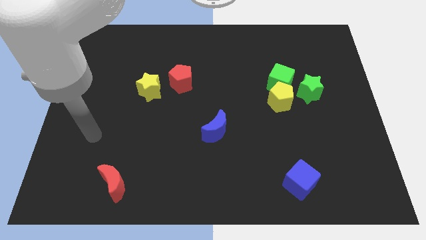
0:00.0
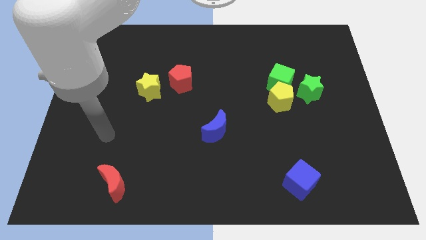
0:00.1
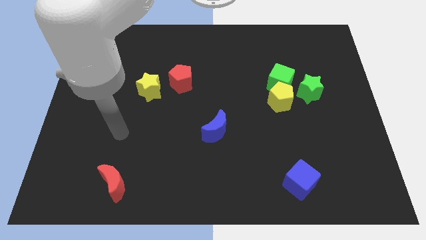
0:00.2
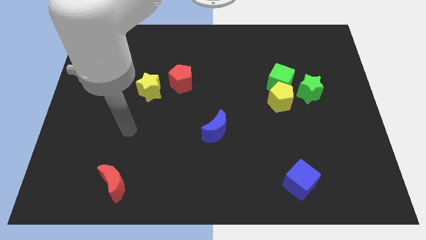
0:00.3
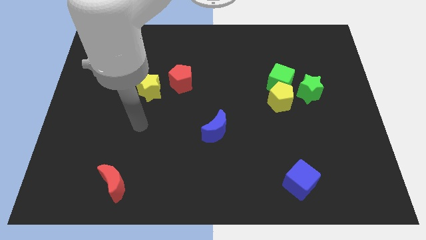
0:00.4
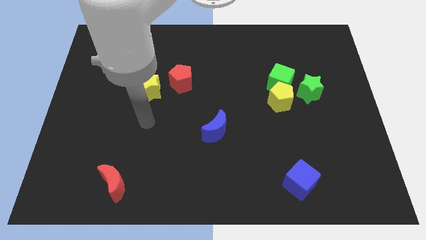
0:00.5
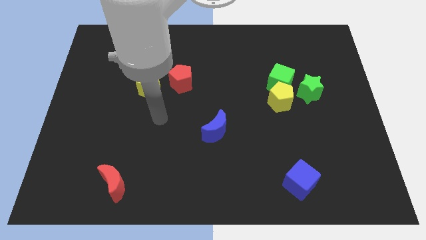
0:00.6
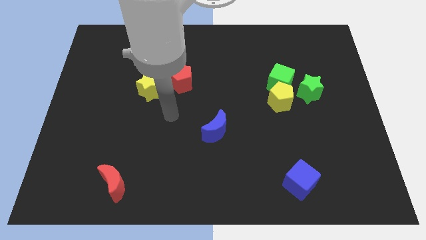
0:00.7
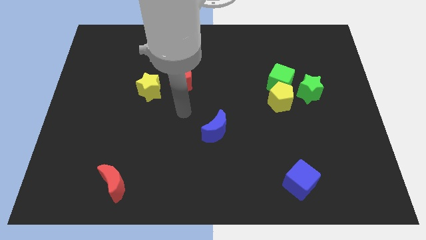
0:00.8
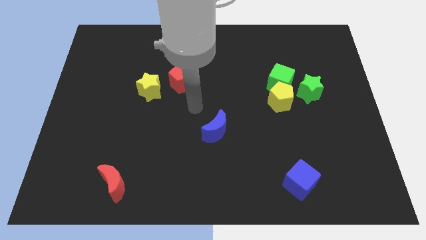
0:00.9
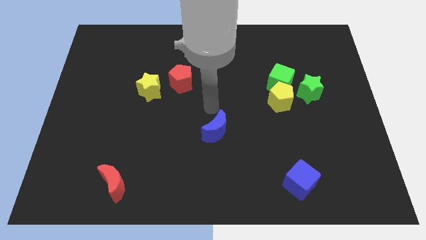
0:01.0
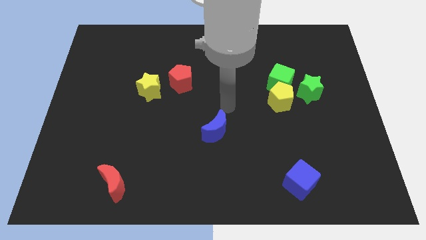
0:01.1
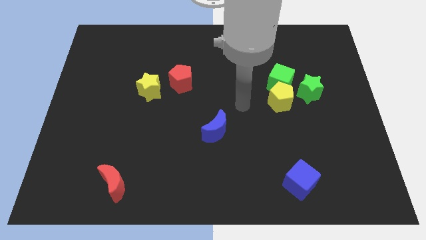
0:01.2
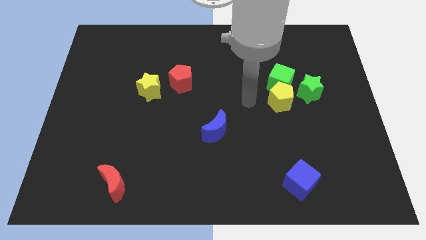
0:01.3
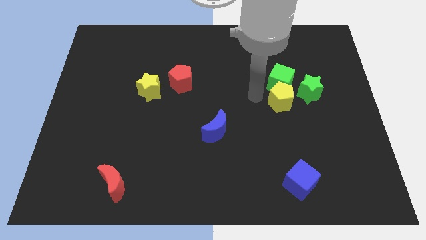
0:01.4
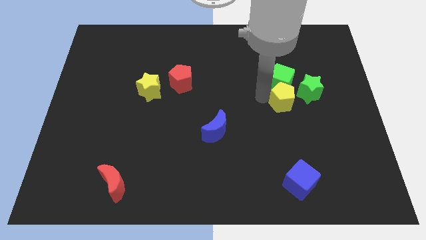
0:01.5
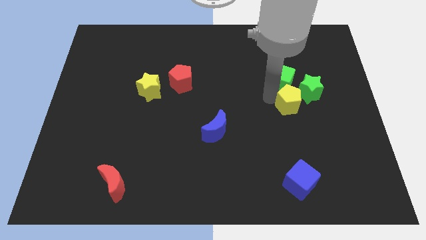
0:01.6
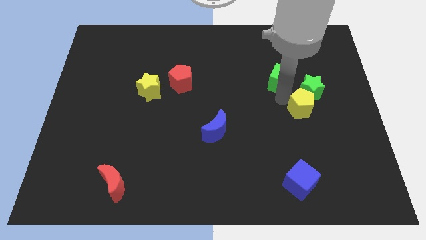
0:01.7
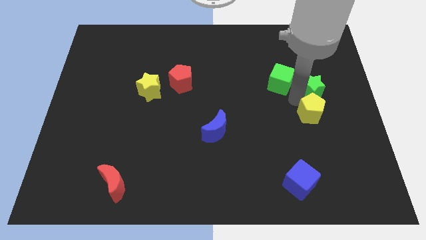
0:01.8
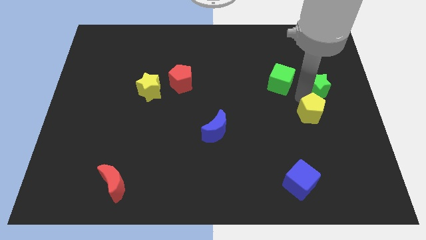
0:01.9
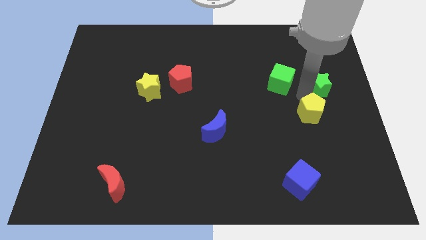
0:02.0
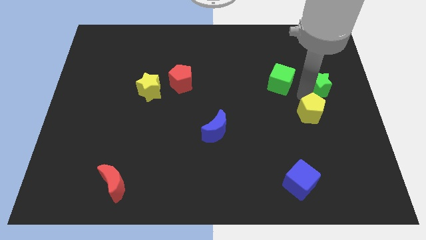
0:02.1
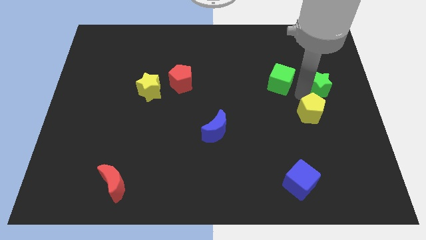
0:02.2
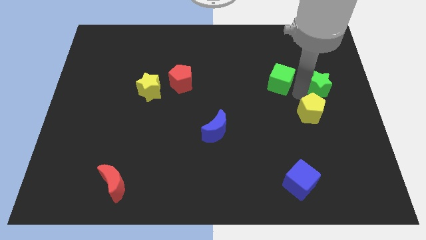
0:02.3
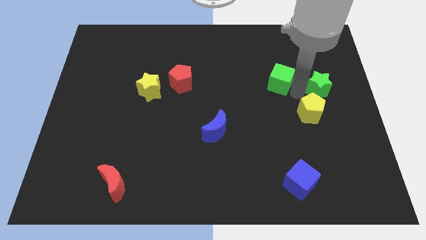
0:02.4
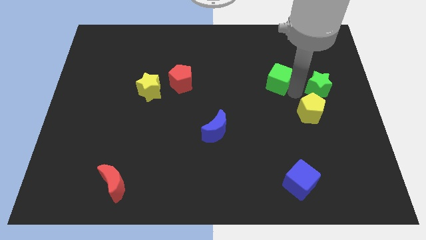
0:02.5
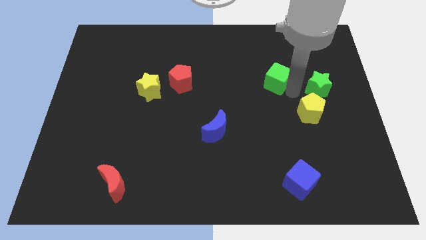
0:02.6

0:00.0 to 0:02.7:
move the green cube away from the yellow pentagon and green star

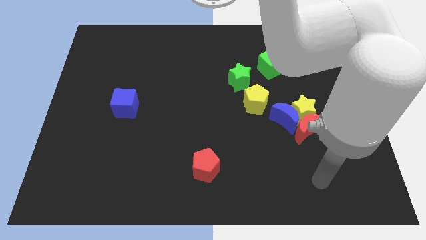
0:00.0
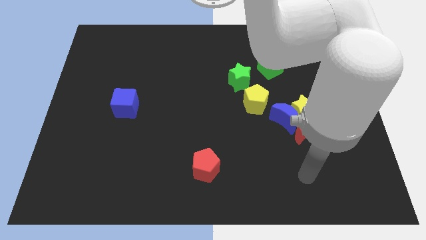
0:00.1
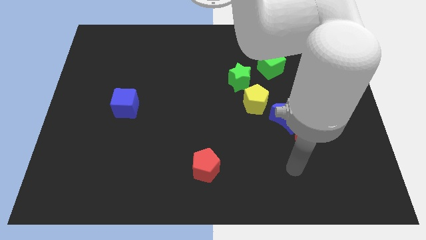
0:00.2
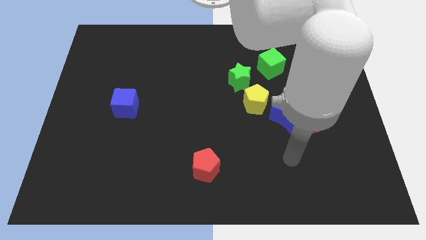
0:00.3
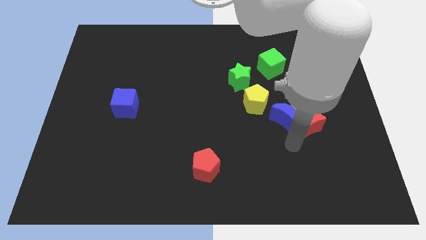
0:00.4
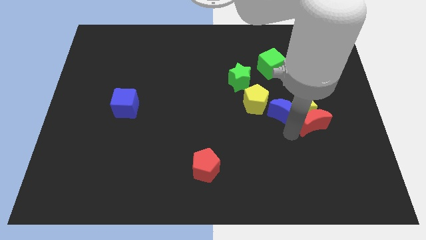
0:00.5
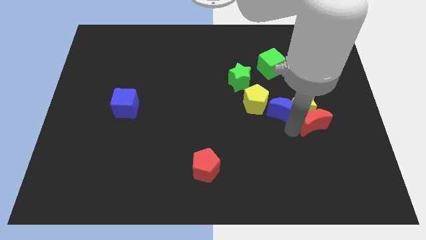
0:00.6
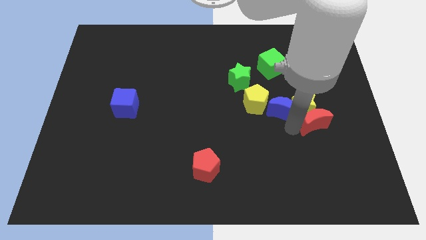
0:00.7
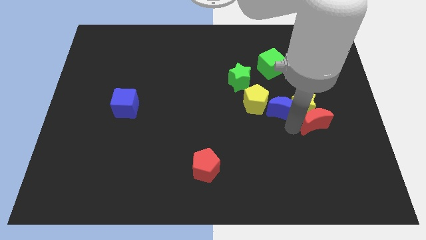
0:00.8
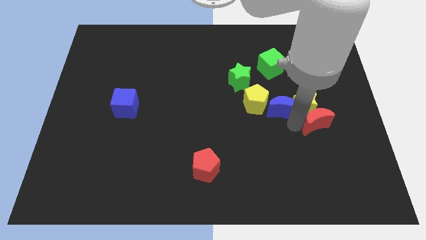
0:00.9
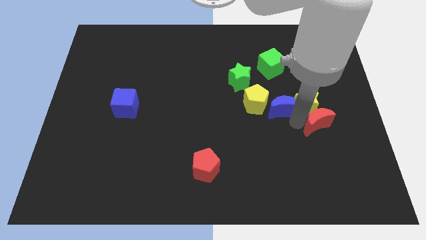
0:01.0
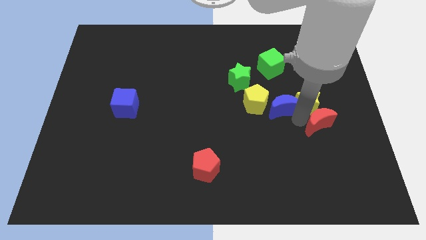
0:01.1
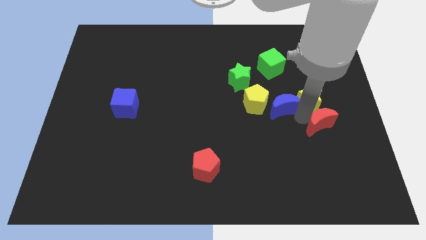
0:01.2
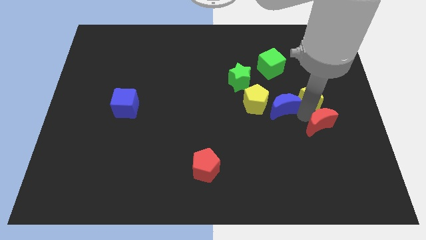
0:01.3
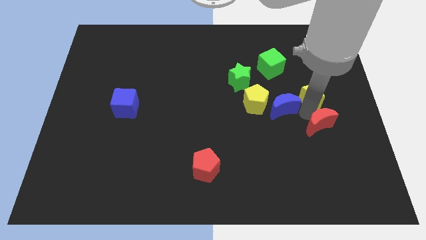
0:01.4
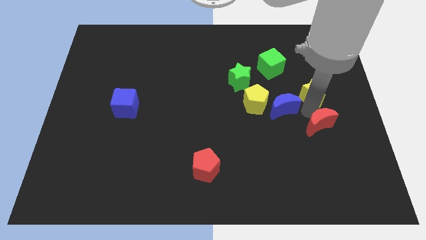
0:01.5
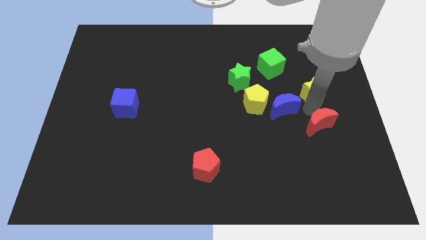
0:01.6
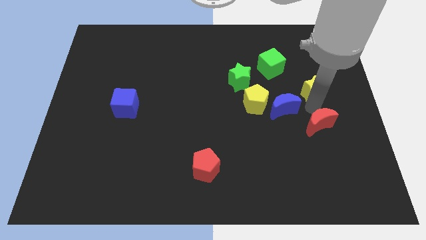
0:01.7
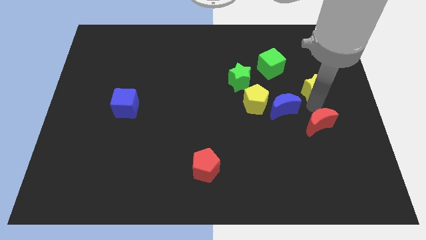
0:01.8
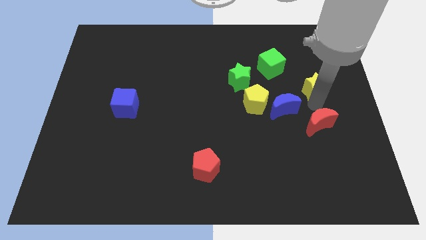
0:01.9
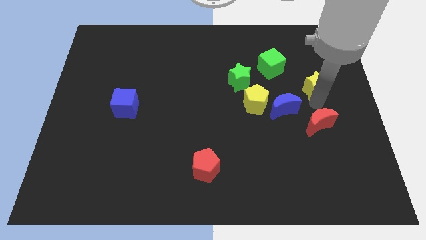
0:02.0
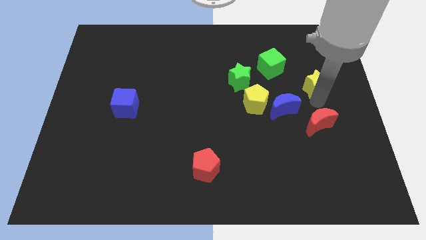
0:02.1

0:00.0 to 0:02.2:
separate the yellow star from the blue moon and red moon

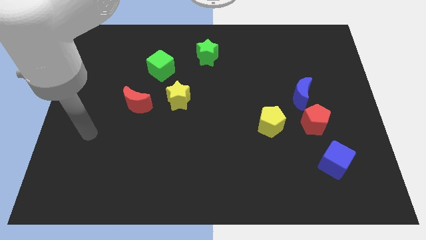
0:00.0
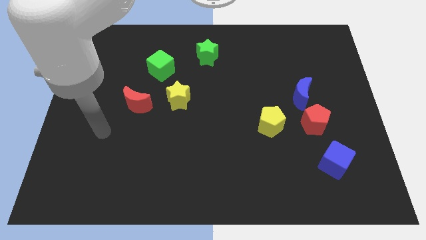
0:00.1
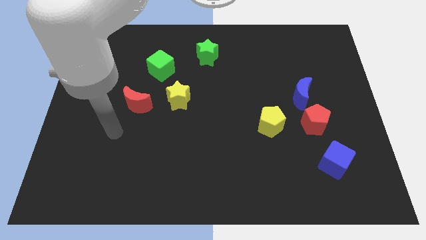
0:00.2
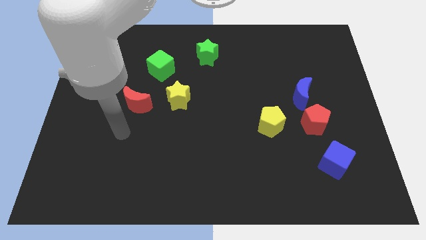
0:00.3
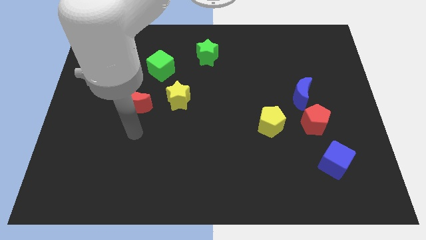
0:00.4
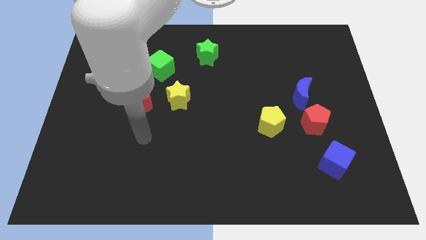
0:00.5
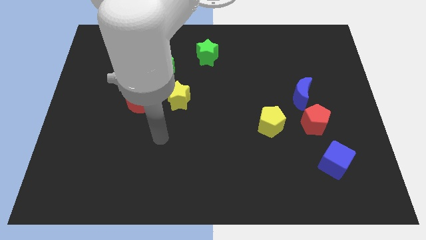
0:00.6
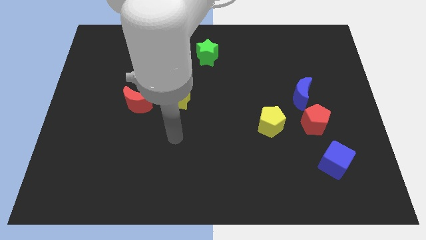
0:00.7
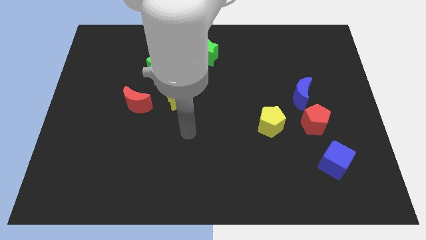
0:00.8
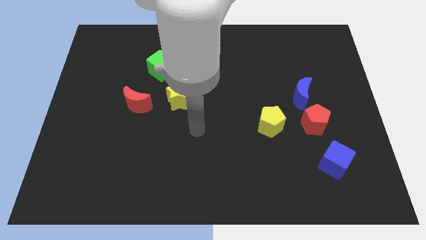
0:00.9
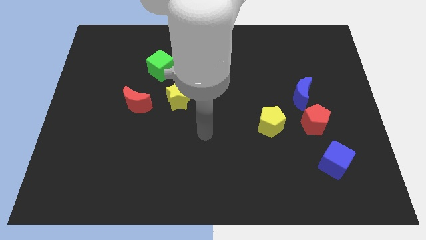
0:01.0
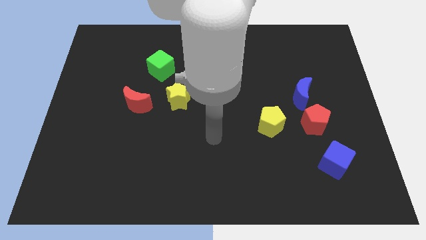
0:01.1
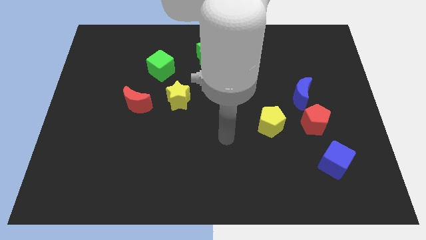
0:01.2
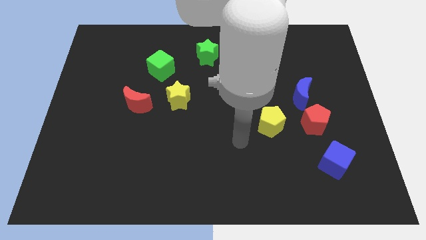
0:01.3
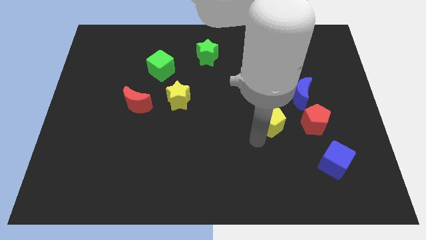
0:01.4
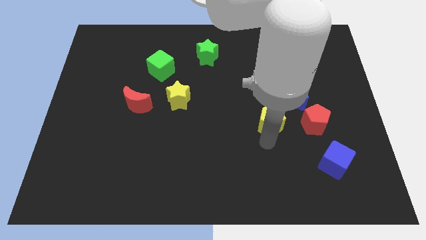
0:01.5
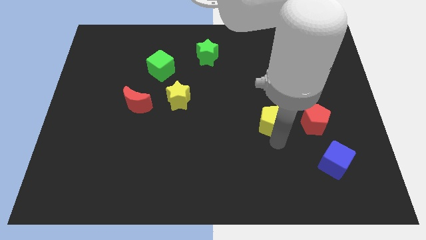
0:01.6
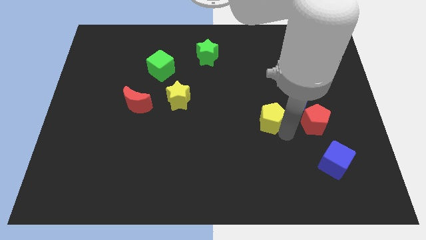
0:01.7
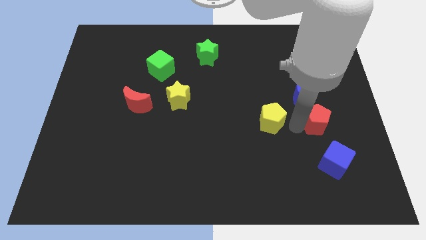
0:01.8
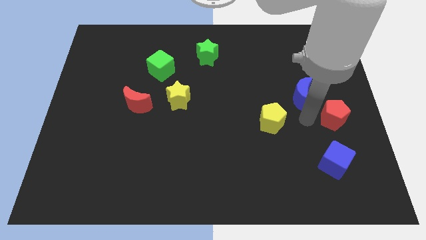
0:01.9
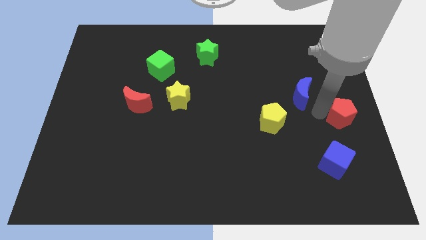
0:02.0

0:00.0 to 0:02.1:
pull the blue moon apart from the red pentagon

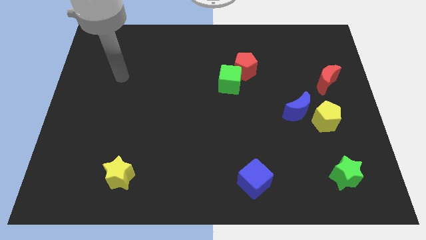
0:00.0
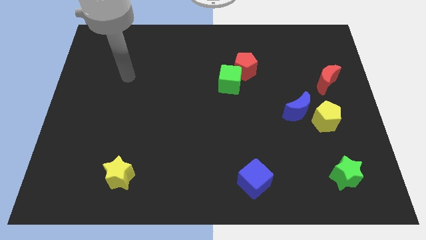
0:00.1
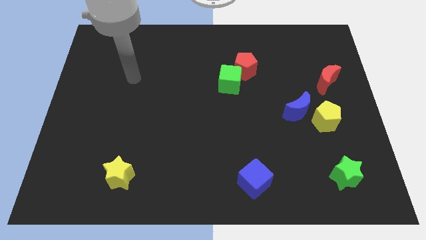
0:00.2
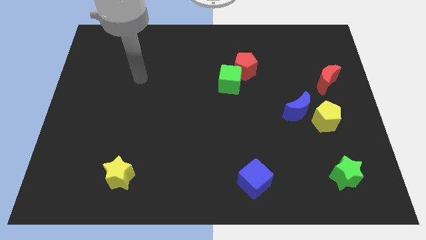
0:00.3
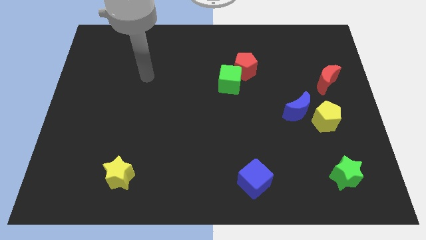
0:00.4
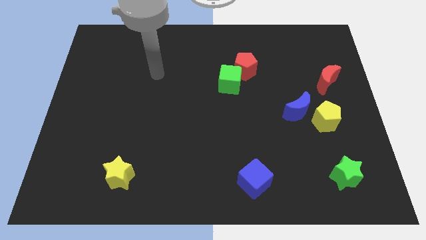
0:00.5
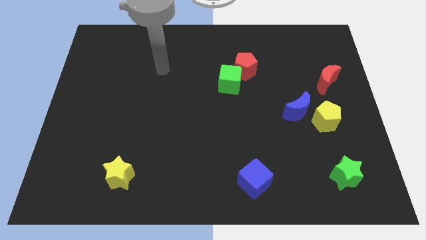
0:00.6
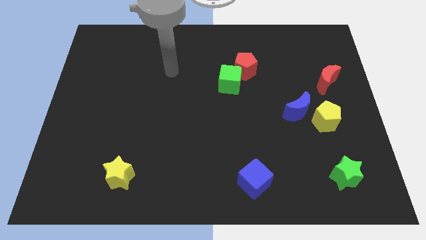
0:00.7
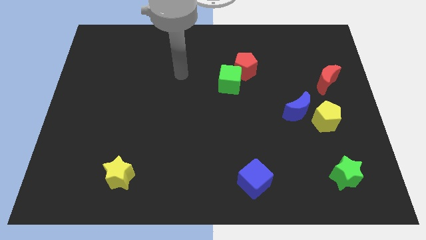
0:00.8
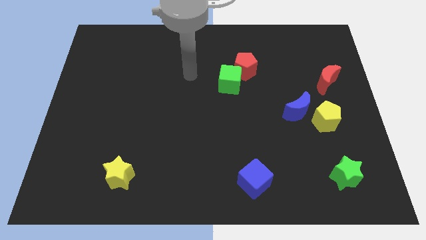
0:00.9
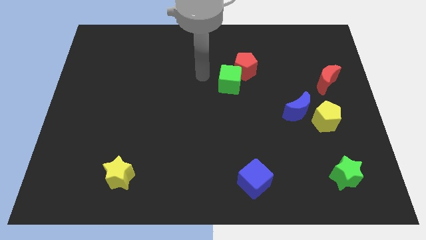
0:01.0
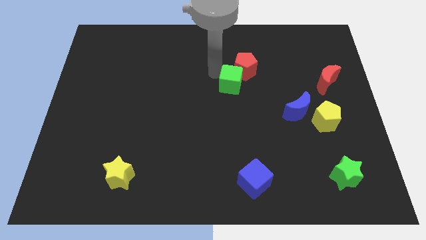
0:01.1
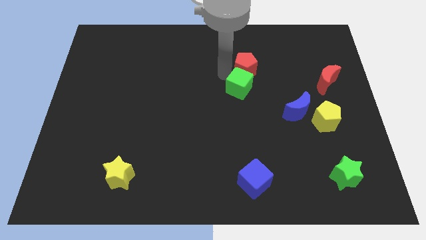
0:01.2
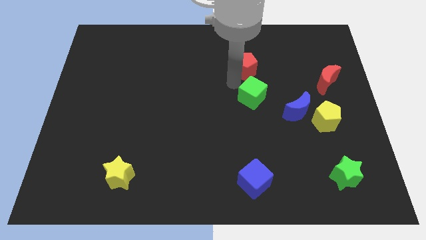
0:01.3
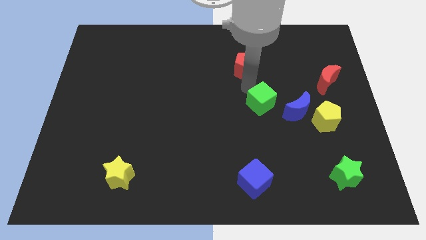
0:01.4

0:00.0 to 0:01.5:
pull the red pentagon apart from the green cube

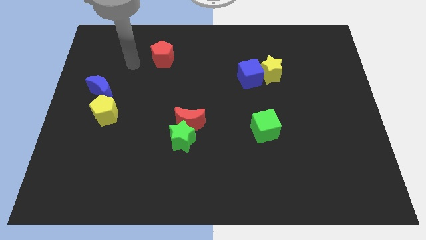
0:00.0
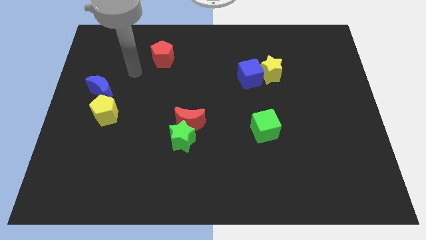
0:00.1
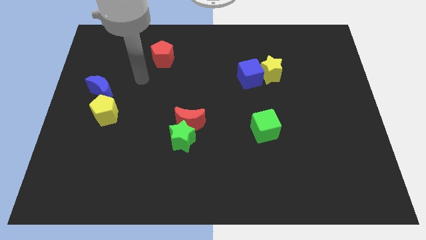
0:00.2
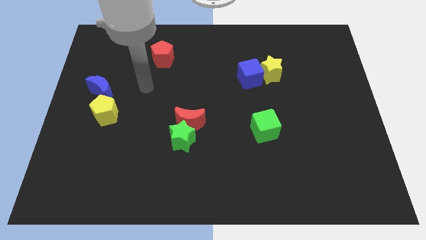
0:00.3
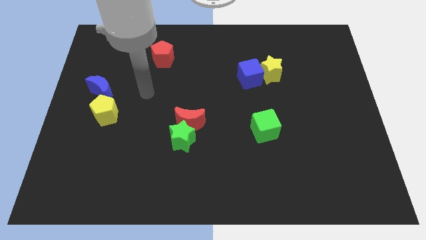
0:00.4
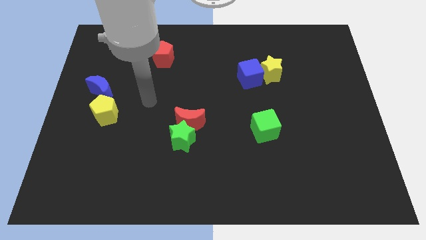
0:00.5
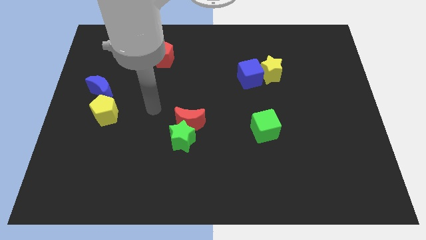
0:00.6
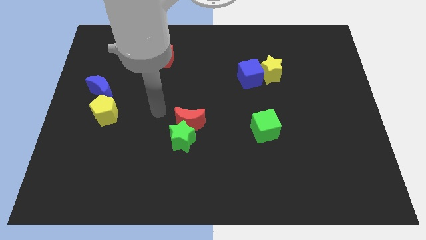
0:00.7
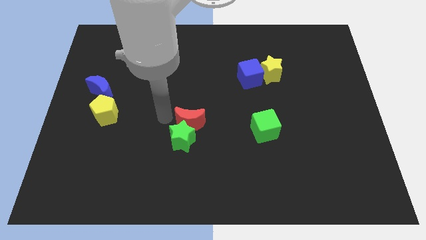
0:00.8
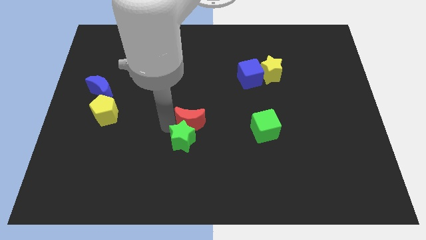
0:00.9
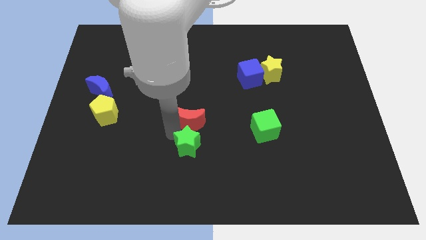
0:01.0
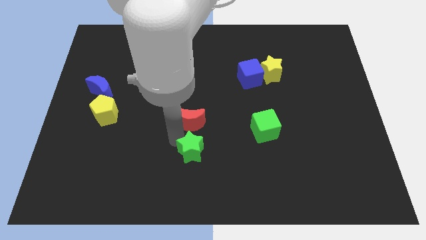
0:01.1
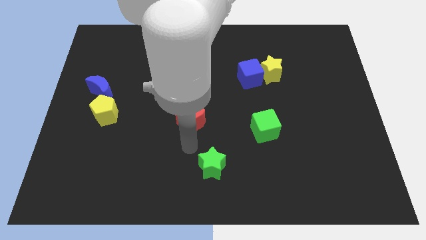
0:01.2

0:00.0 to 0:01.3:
pull the red moon apart from the green star
